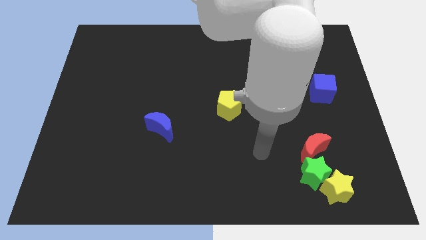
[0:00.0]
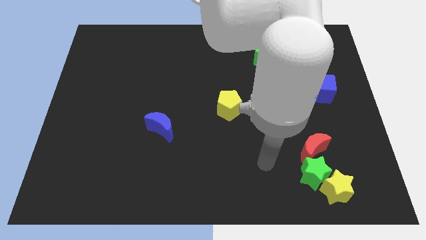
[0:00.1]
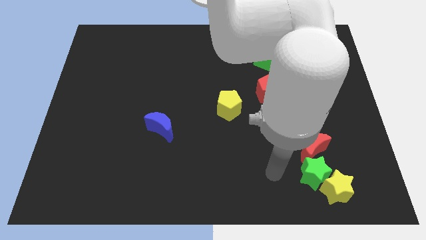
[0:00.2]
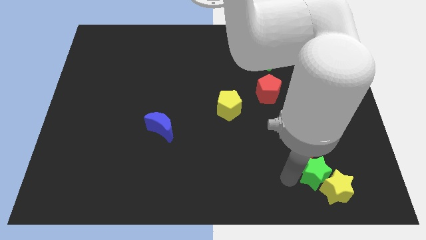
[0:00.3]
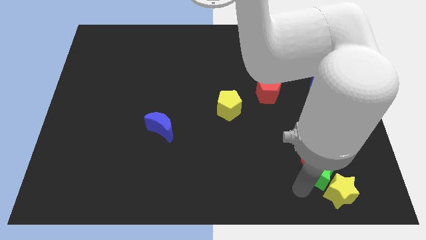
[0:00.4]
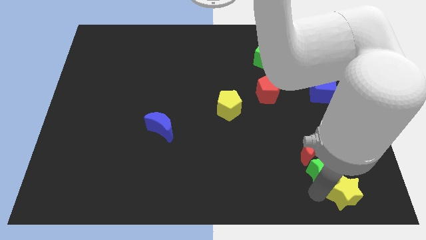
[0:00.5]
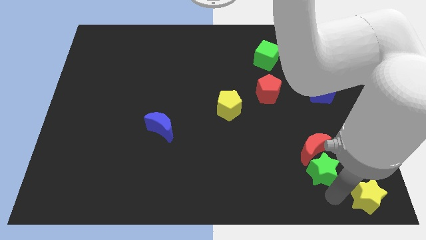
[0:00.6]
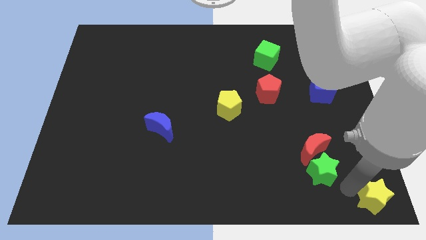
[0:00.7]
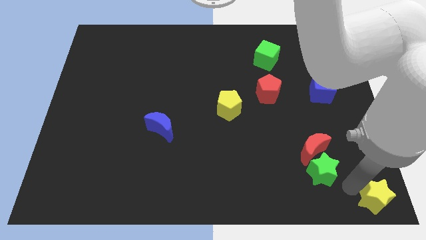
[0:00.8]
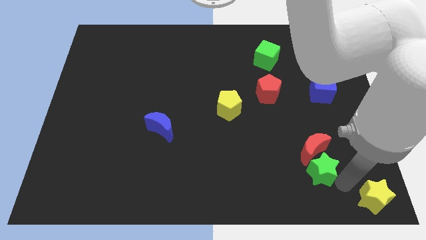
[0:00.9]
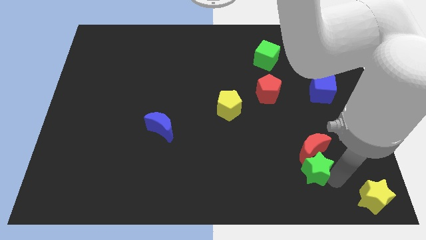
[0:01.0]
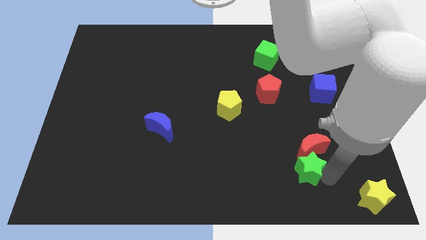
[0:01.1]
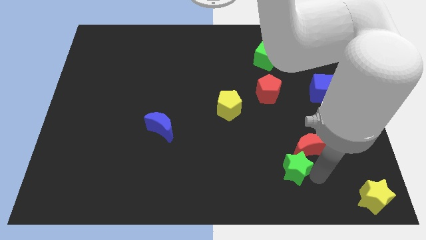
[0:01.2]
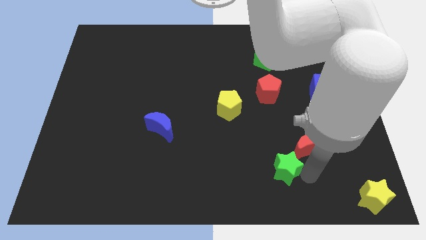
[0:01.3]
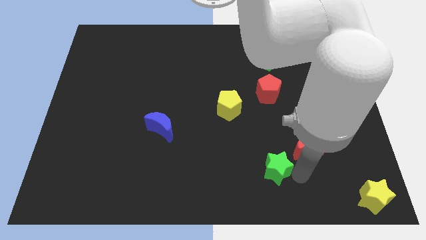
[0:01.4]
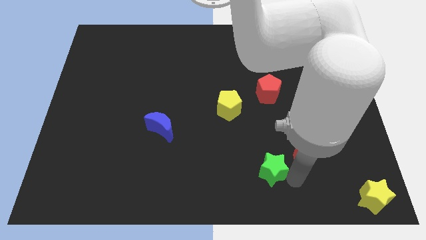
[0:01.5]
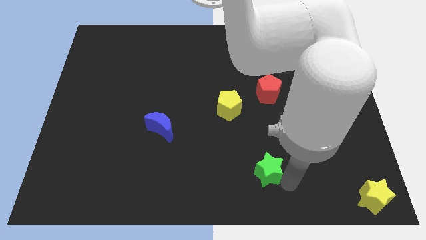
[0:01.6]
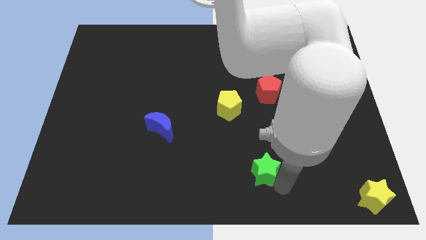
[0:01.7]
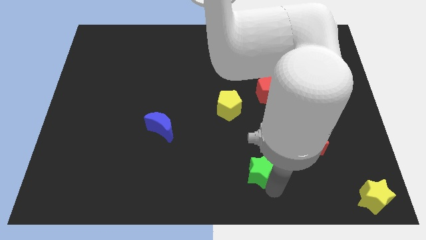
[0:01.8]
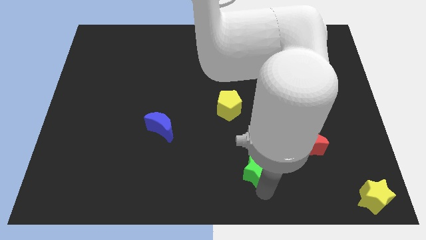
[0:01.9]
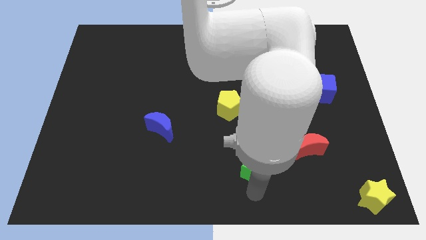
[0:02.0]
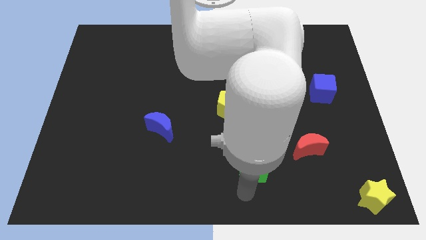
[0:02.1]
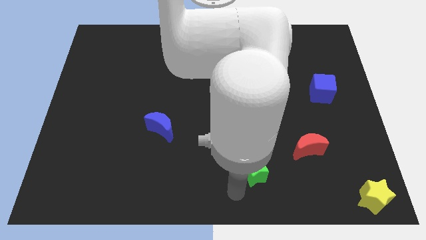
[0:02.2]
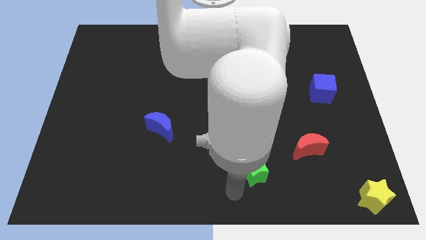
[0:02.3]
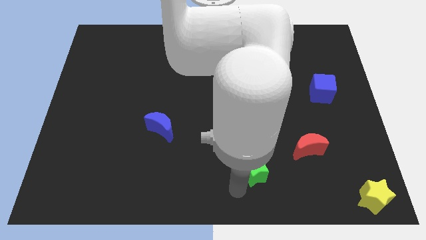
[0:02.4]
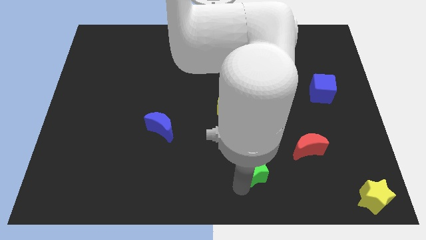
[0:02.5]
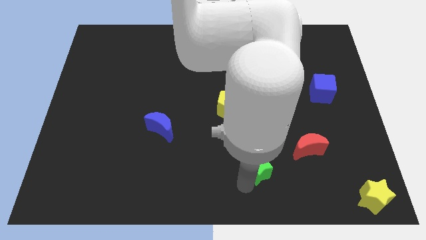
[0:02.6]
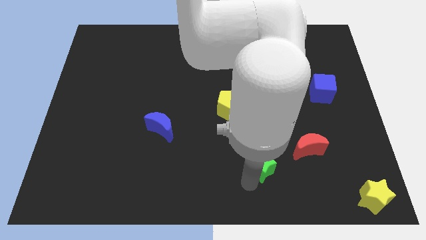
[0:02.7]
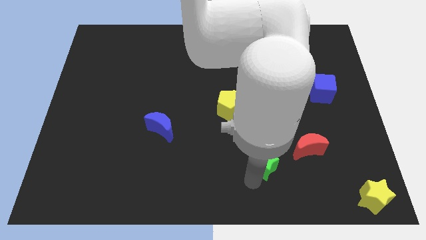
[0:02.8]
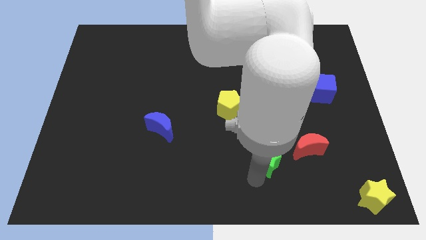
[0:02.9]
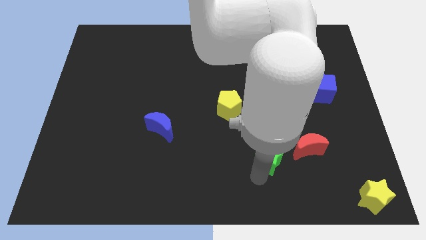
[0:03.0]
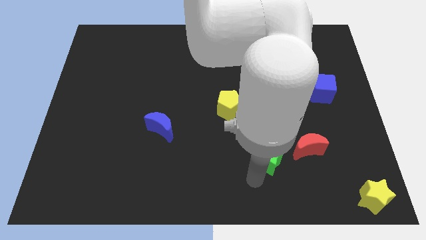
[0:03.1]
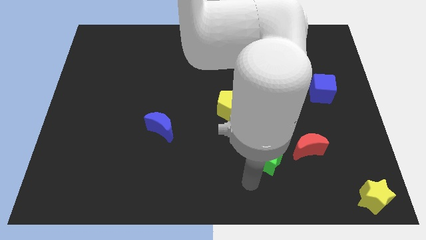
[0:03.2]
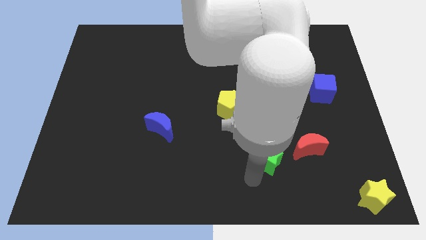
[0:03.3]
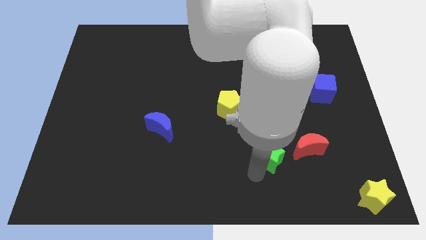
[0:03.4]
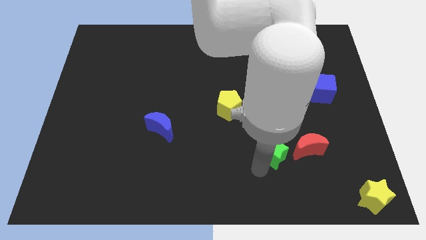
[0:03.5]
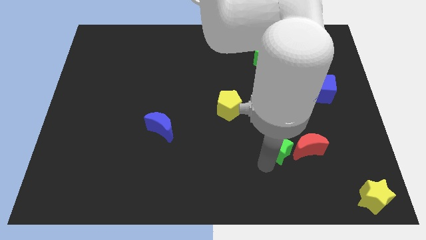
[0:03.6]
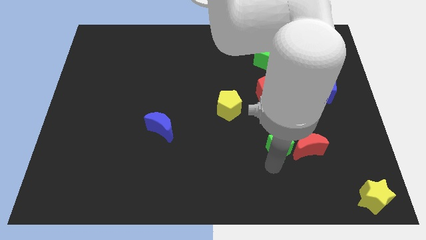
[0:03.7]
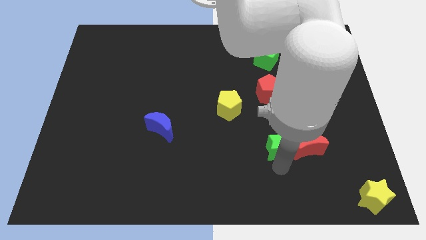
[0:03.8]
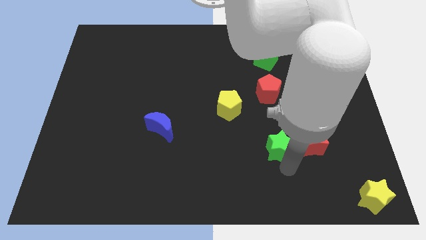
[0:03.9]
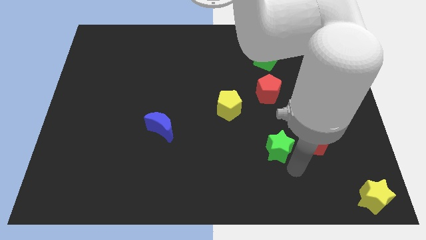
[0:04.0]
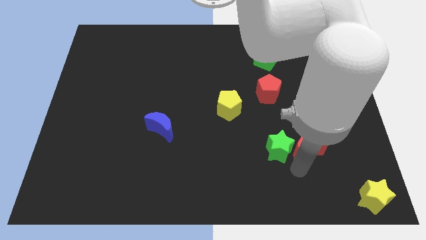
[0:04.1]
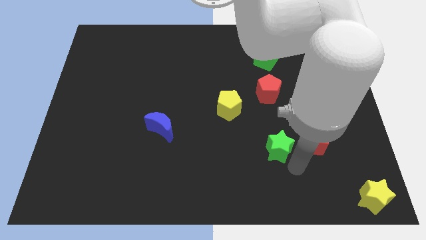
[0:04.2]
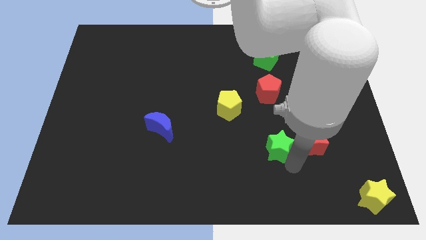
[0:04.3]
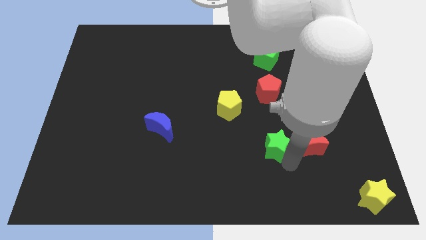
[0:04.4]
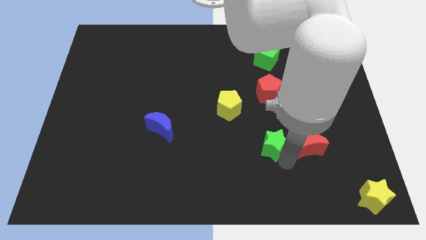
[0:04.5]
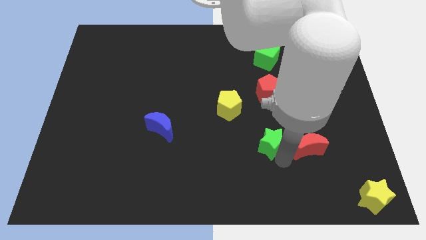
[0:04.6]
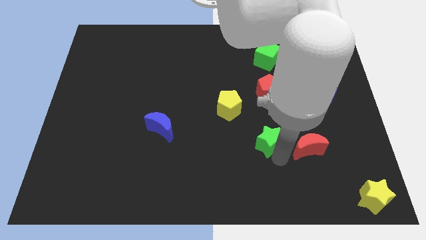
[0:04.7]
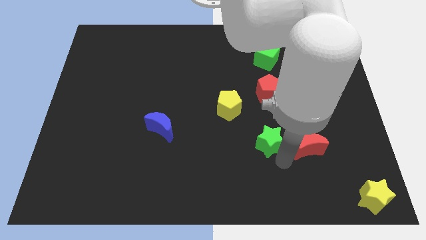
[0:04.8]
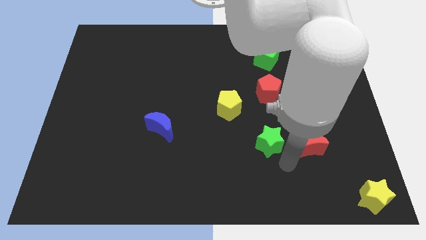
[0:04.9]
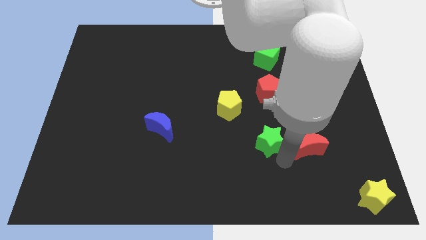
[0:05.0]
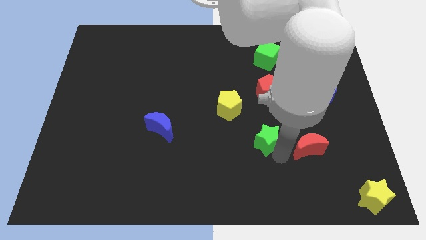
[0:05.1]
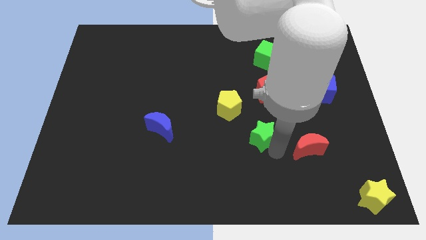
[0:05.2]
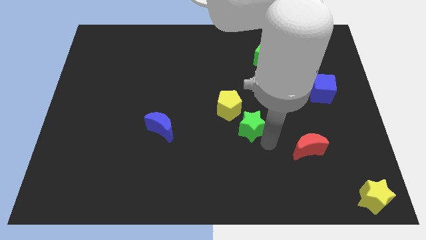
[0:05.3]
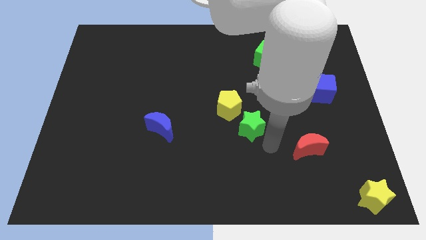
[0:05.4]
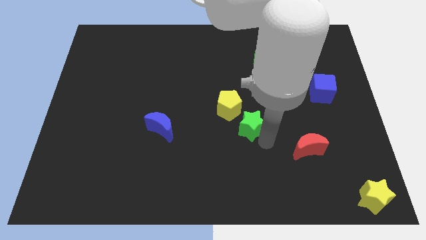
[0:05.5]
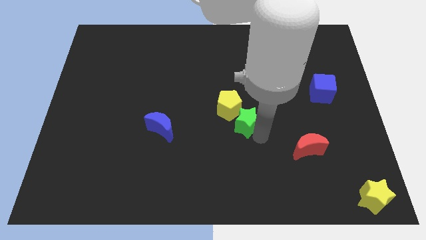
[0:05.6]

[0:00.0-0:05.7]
move the green star close to the yellow pentagon

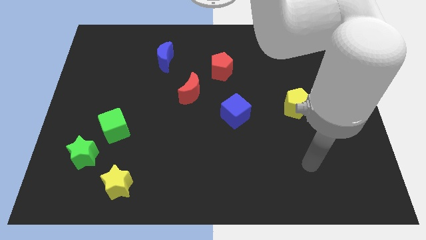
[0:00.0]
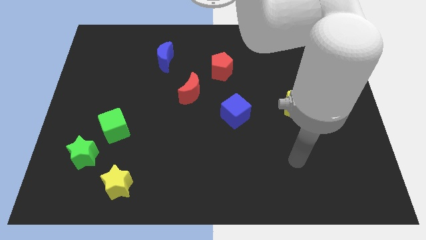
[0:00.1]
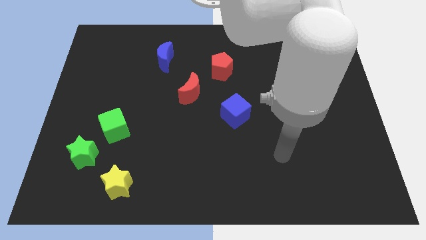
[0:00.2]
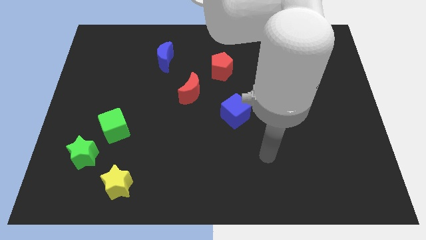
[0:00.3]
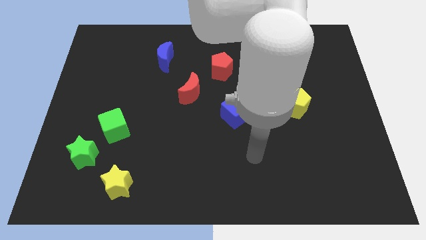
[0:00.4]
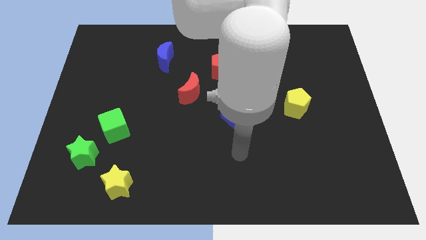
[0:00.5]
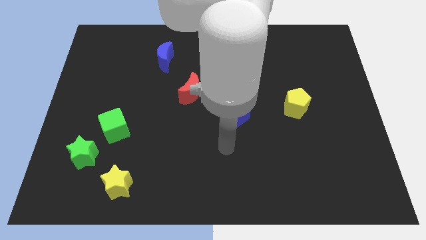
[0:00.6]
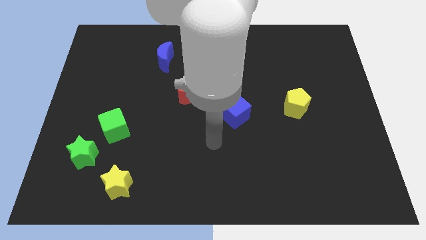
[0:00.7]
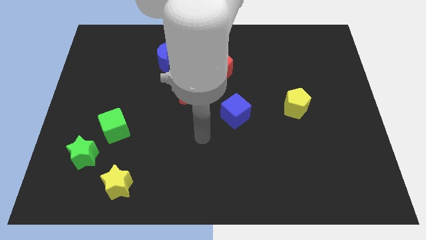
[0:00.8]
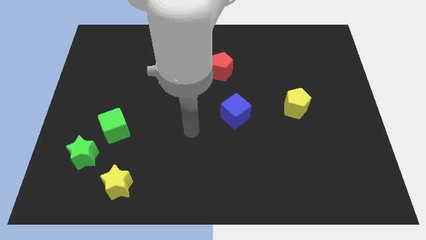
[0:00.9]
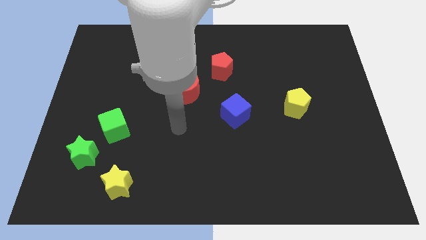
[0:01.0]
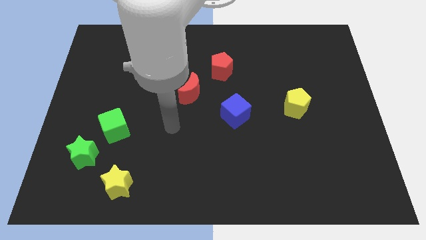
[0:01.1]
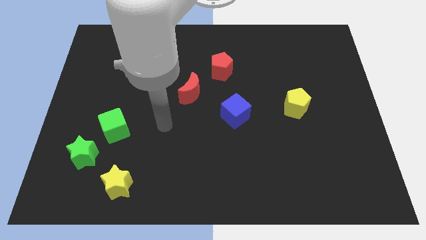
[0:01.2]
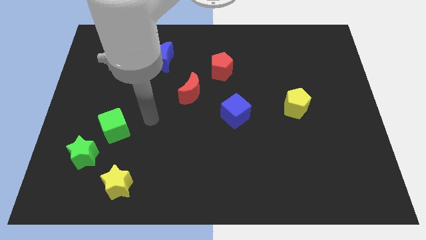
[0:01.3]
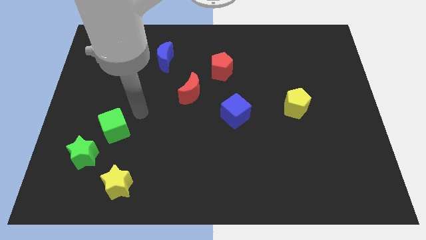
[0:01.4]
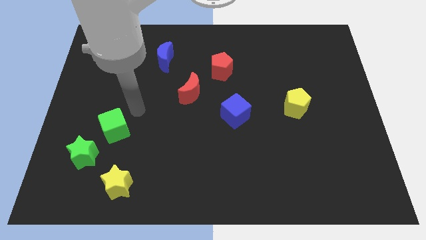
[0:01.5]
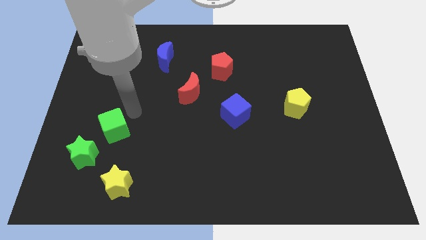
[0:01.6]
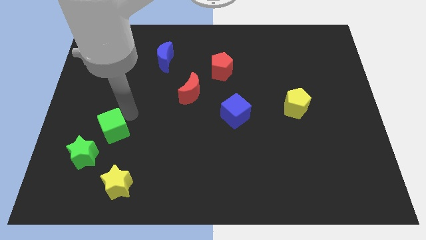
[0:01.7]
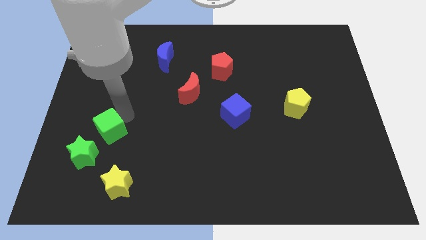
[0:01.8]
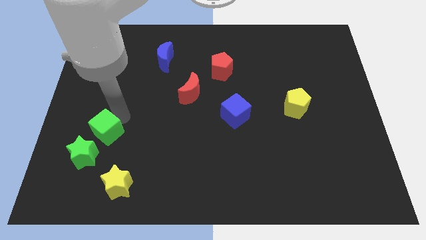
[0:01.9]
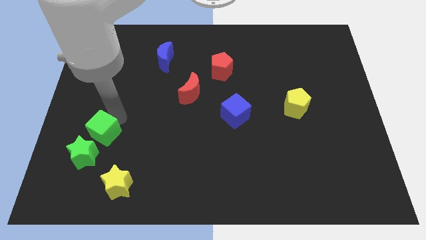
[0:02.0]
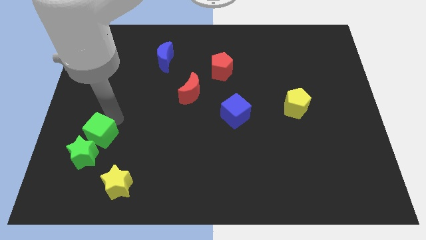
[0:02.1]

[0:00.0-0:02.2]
move the green cube close to the green star
